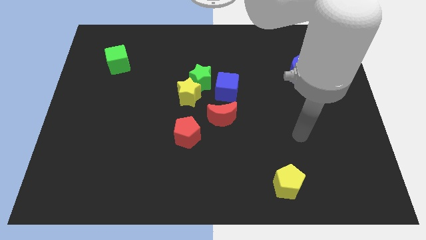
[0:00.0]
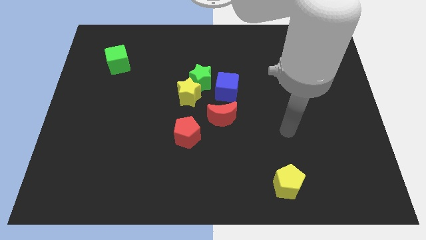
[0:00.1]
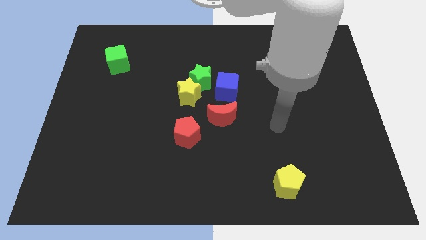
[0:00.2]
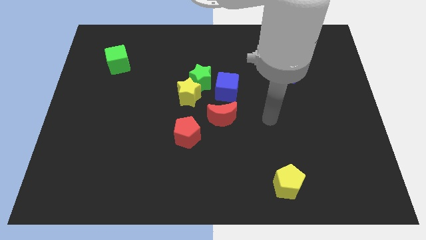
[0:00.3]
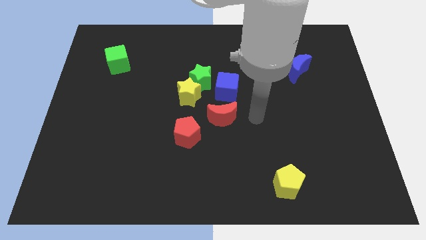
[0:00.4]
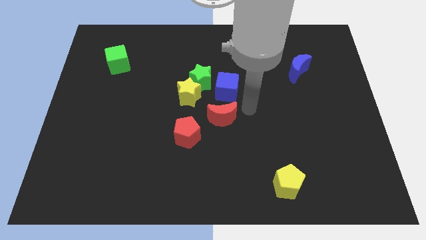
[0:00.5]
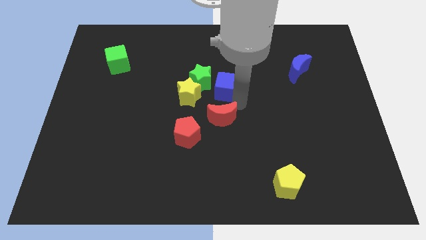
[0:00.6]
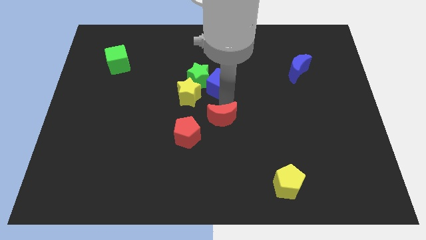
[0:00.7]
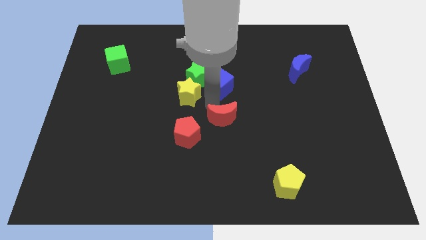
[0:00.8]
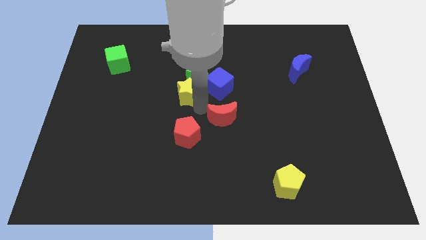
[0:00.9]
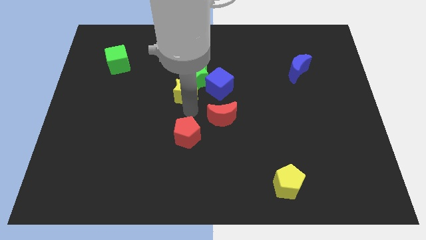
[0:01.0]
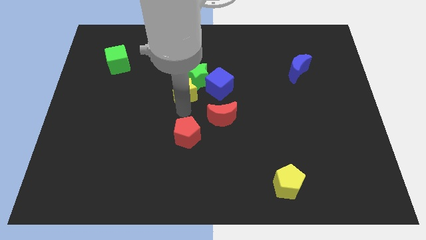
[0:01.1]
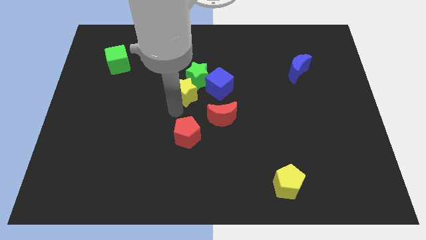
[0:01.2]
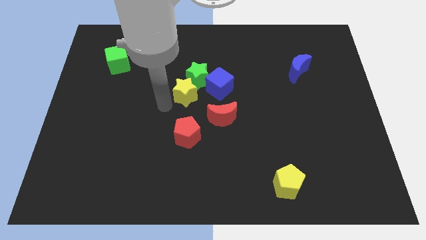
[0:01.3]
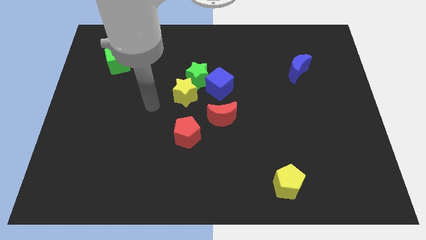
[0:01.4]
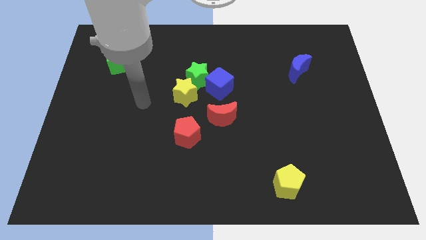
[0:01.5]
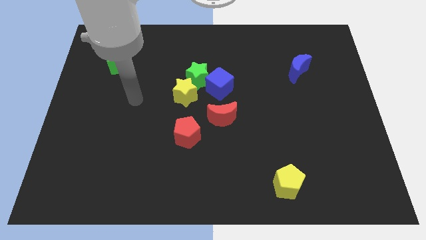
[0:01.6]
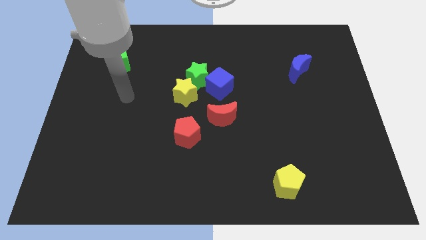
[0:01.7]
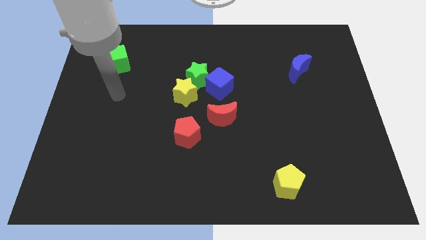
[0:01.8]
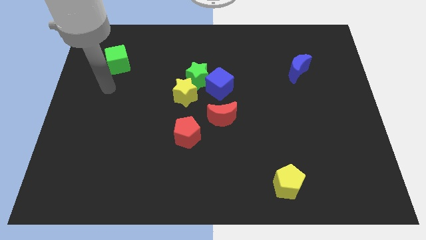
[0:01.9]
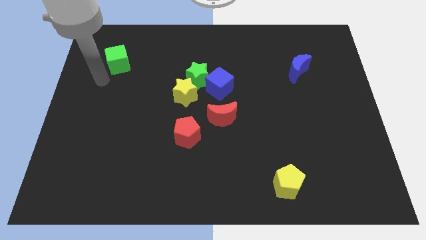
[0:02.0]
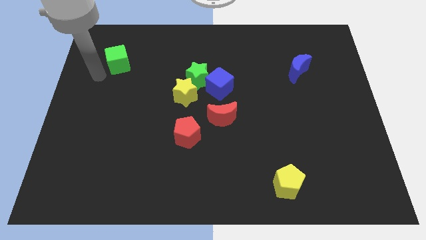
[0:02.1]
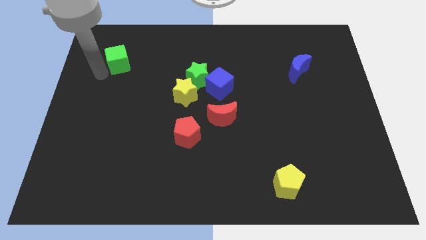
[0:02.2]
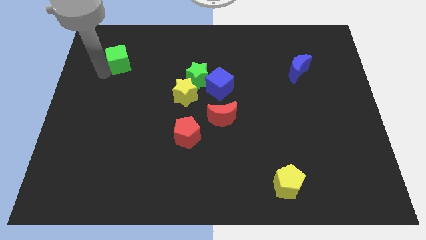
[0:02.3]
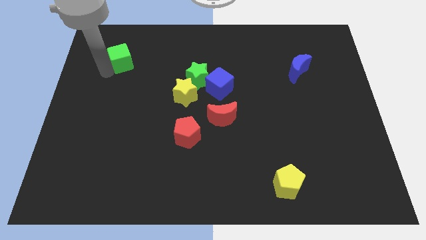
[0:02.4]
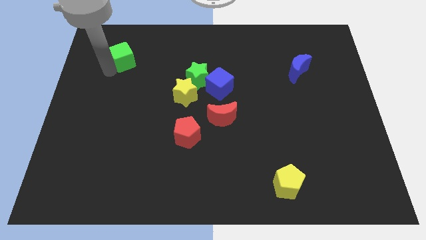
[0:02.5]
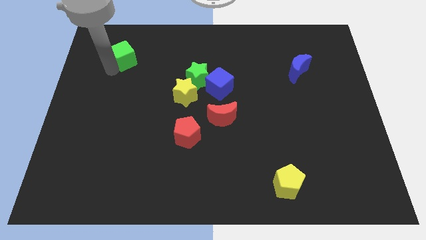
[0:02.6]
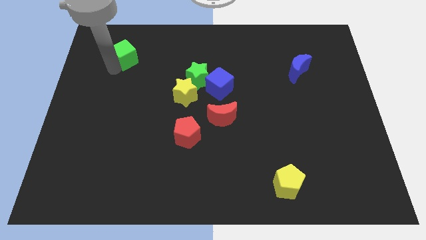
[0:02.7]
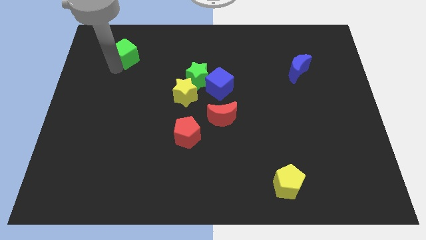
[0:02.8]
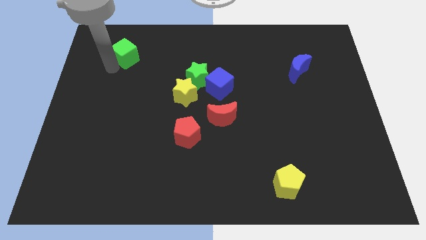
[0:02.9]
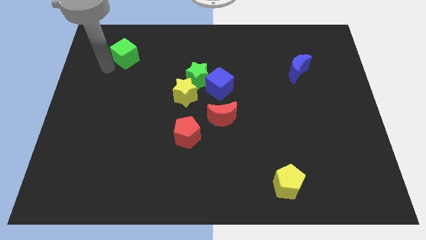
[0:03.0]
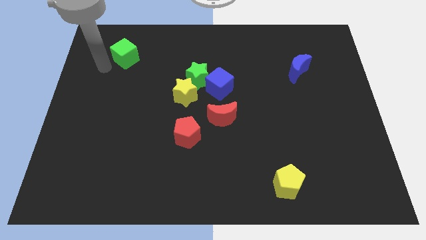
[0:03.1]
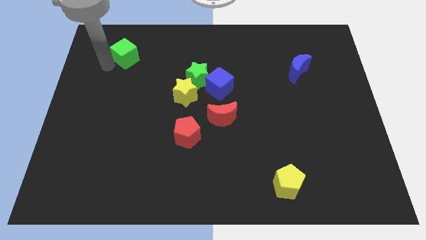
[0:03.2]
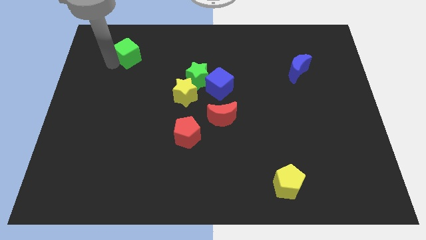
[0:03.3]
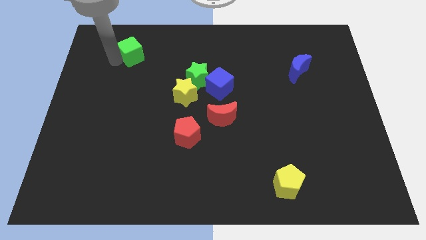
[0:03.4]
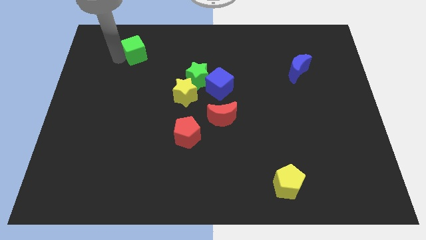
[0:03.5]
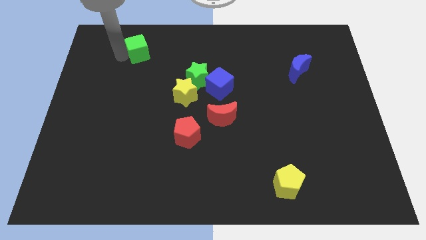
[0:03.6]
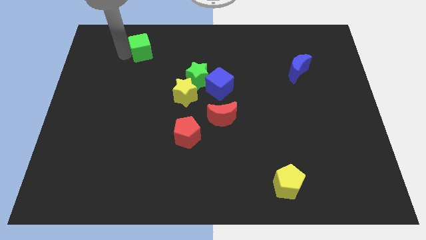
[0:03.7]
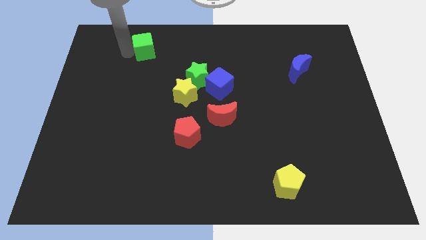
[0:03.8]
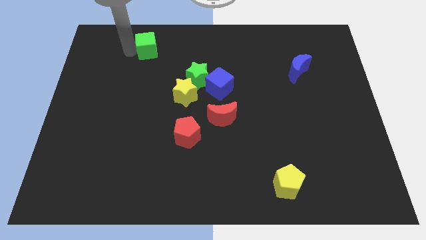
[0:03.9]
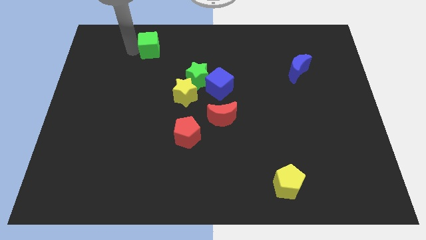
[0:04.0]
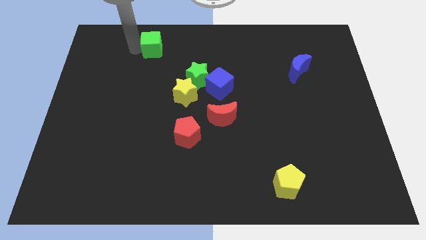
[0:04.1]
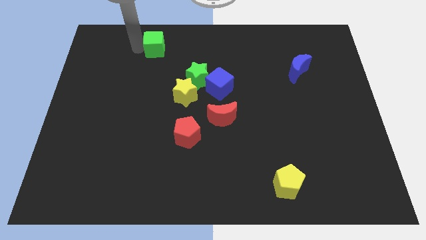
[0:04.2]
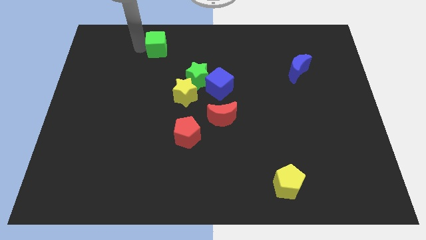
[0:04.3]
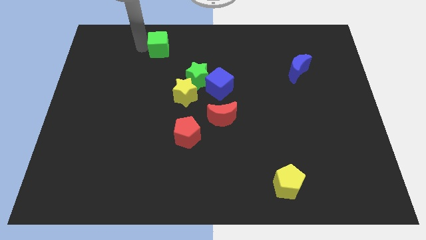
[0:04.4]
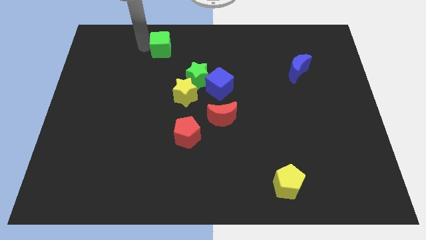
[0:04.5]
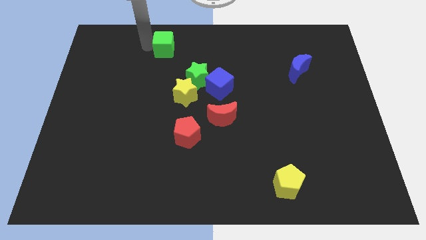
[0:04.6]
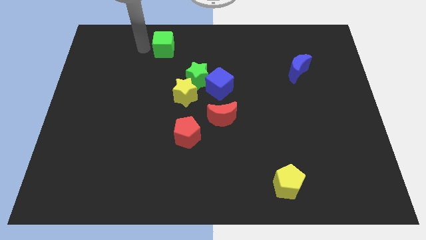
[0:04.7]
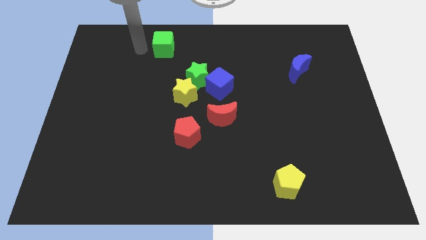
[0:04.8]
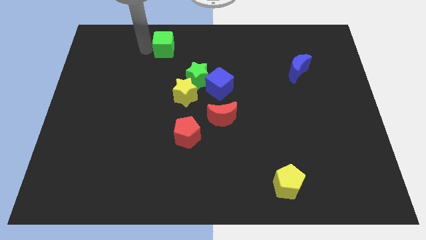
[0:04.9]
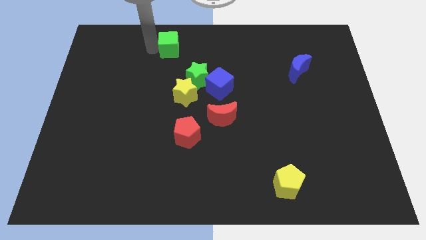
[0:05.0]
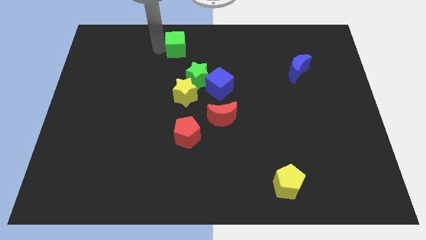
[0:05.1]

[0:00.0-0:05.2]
push the green cube to the towards your base

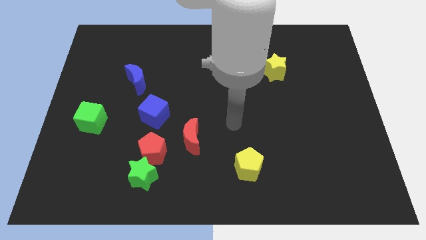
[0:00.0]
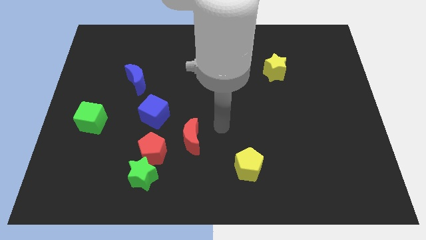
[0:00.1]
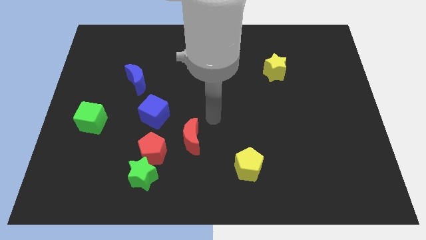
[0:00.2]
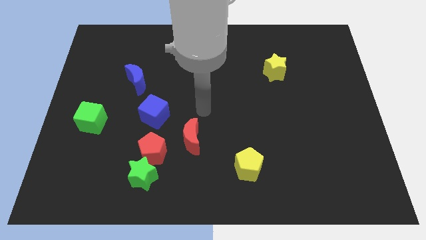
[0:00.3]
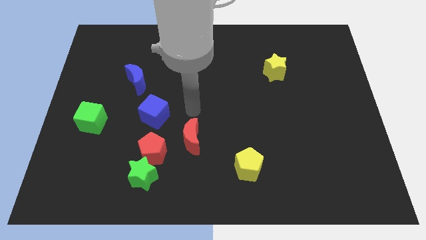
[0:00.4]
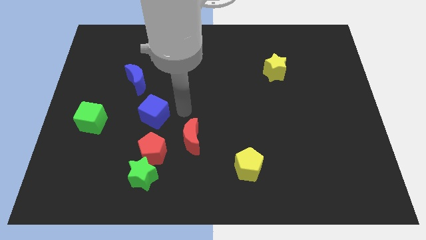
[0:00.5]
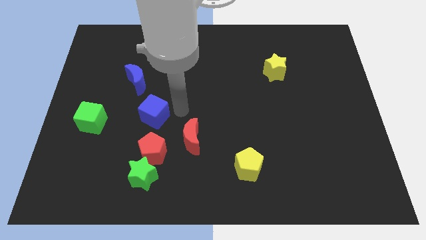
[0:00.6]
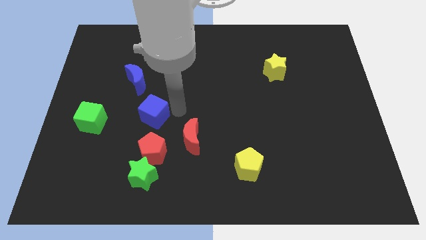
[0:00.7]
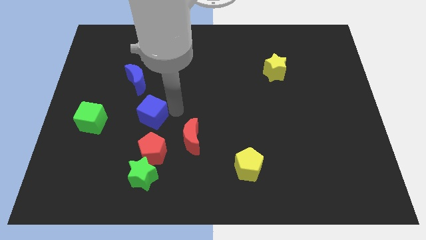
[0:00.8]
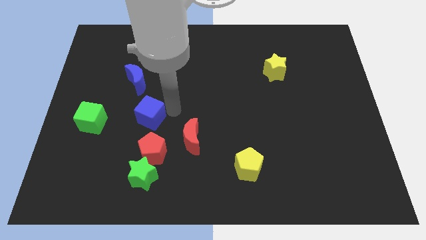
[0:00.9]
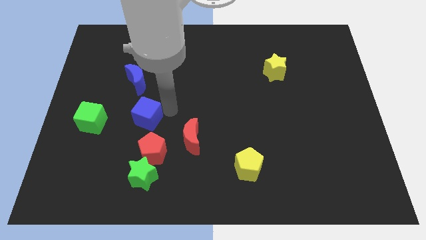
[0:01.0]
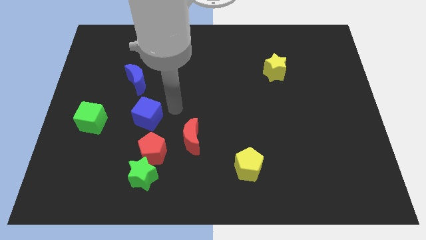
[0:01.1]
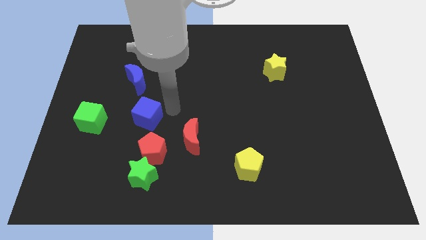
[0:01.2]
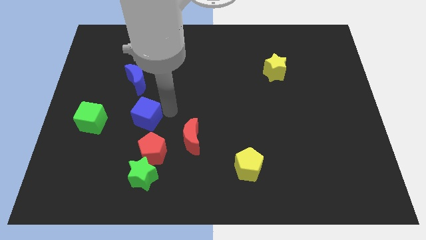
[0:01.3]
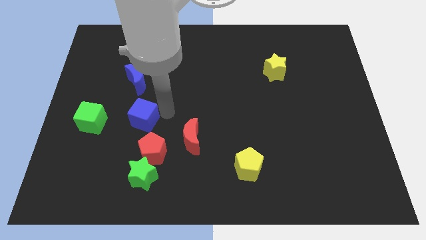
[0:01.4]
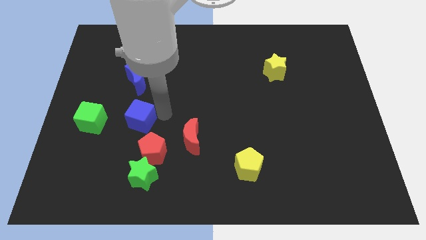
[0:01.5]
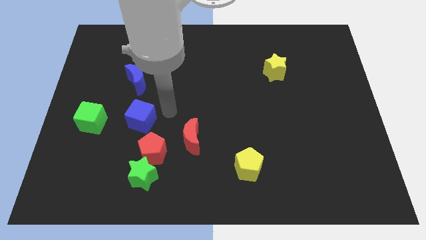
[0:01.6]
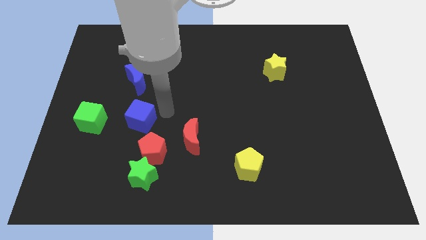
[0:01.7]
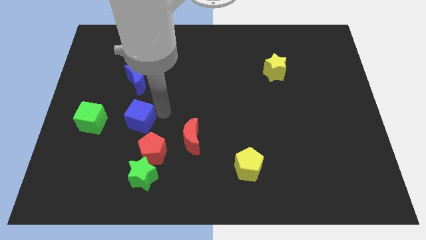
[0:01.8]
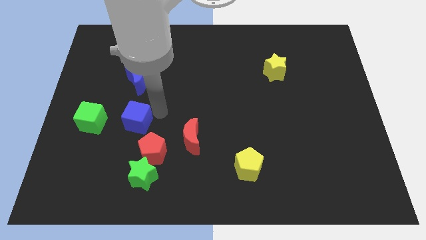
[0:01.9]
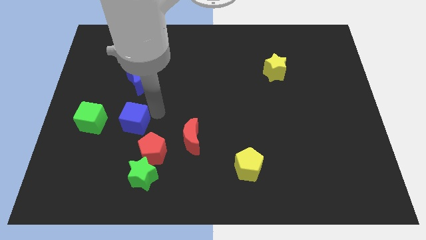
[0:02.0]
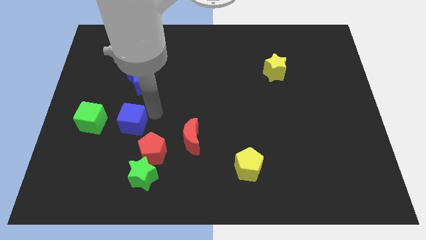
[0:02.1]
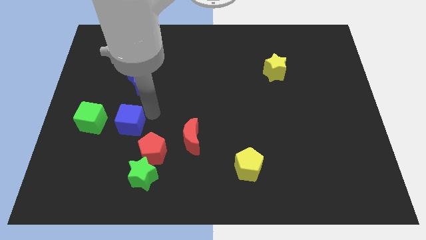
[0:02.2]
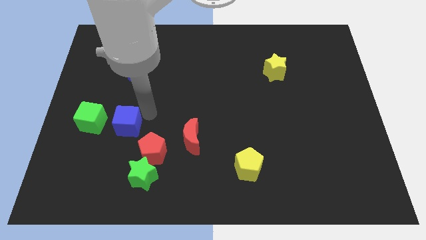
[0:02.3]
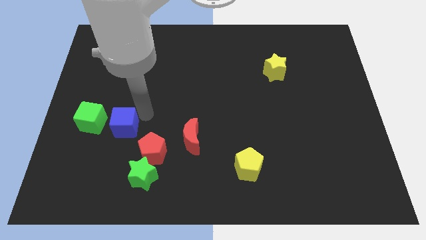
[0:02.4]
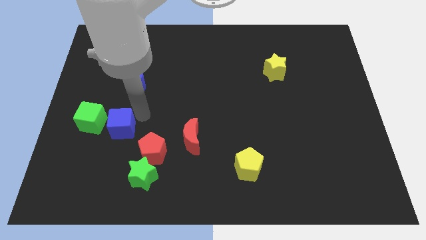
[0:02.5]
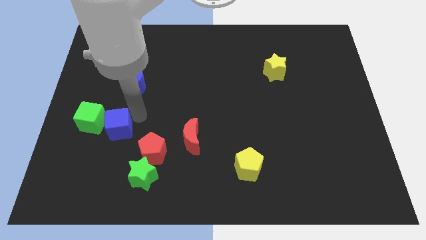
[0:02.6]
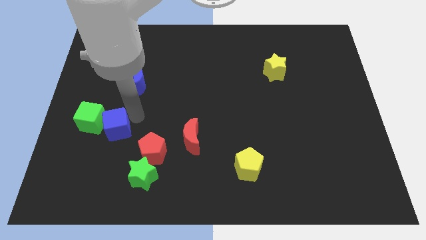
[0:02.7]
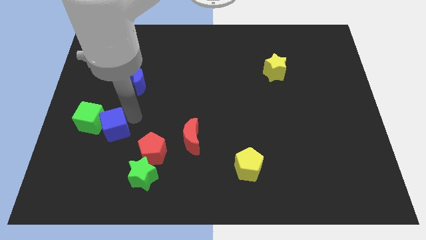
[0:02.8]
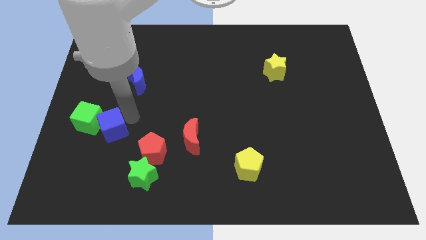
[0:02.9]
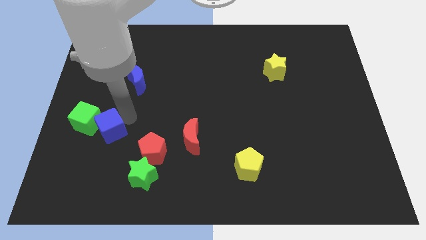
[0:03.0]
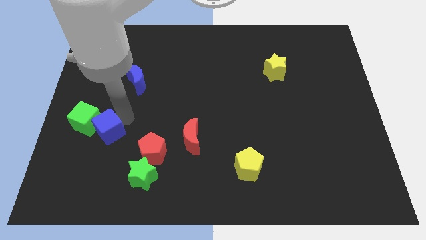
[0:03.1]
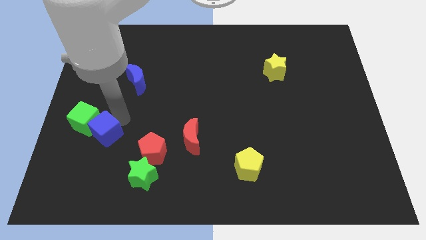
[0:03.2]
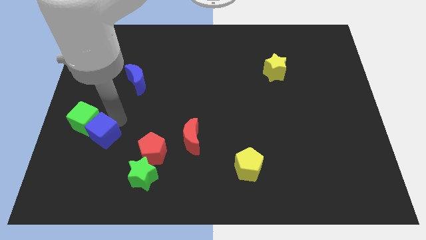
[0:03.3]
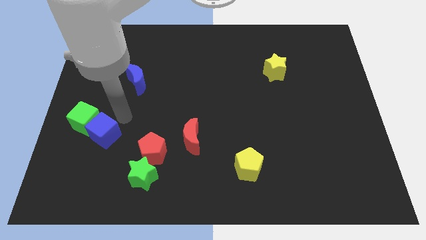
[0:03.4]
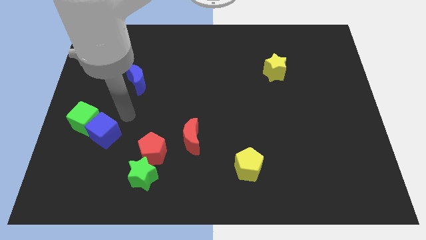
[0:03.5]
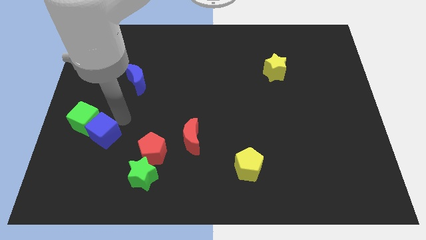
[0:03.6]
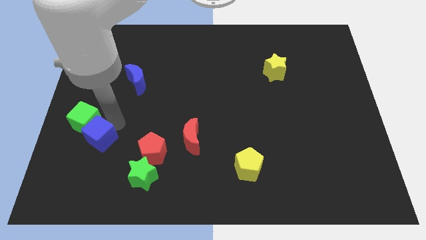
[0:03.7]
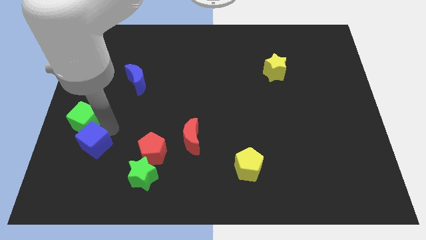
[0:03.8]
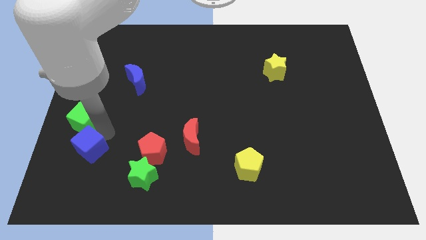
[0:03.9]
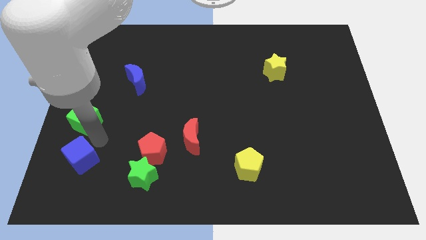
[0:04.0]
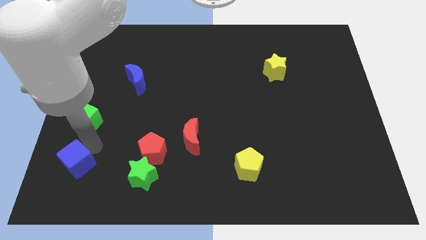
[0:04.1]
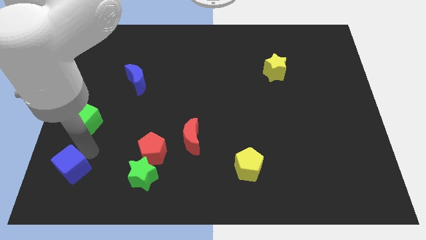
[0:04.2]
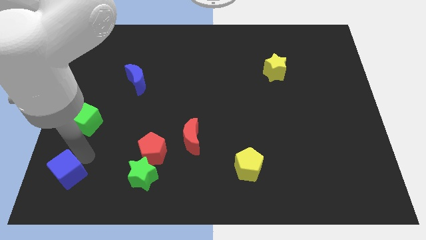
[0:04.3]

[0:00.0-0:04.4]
slide the blue cube to the bottom left of the board
